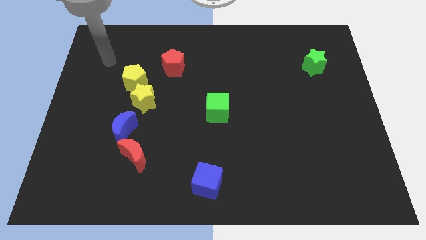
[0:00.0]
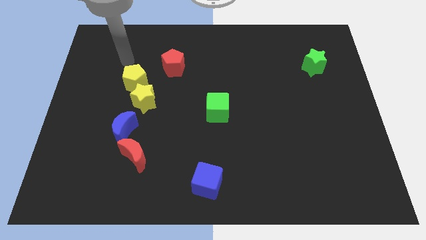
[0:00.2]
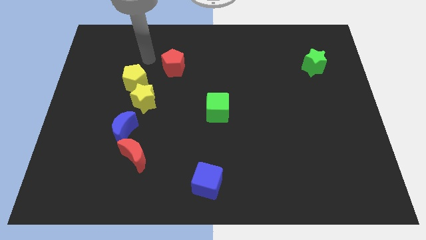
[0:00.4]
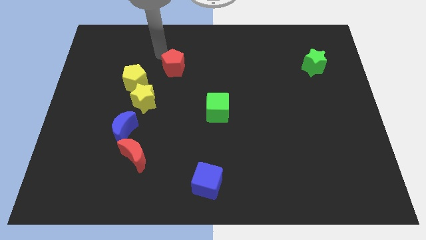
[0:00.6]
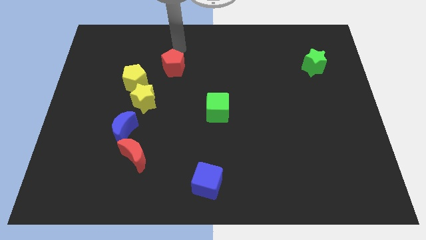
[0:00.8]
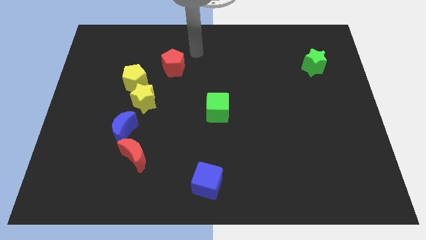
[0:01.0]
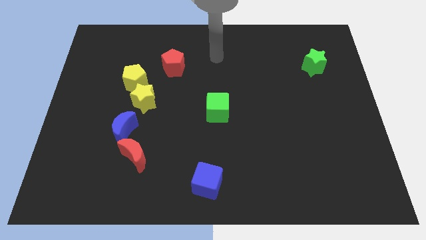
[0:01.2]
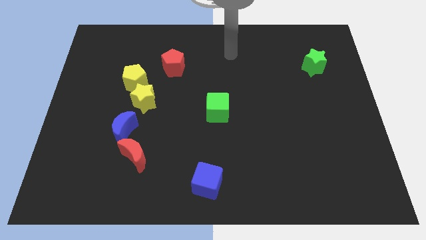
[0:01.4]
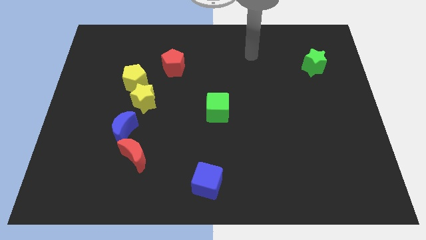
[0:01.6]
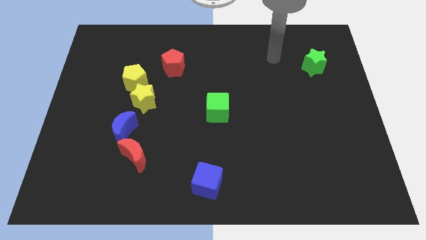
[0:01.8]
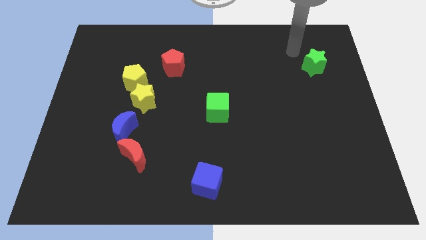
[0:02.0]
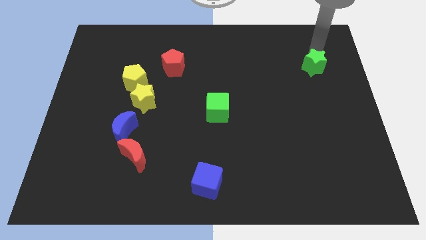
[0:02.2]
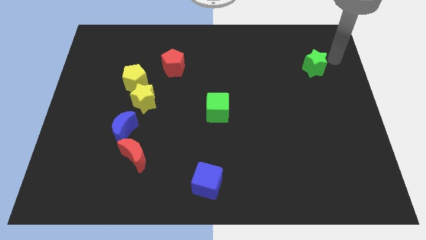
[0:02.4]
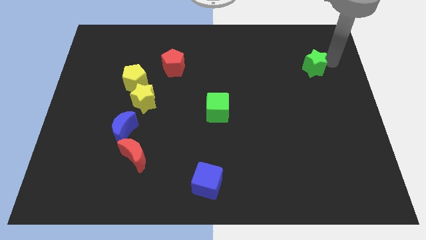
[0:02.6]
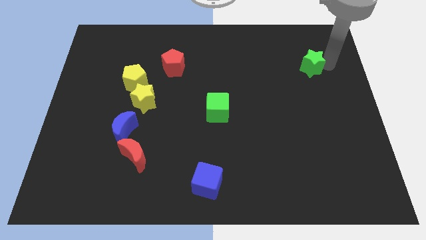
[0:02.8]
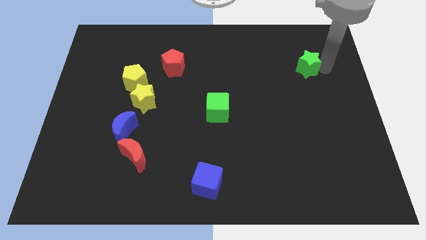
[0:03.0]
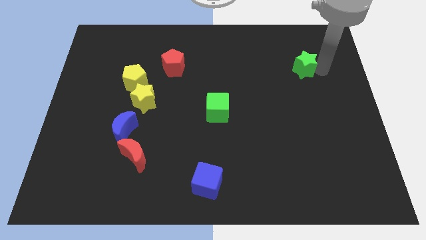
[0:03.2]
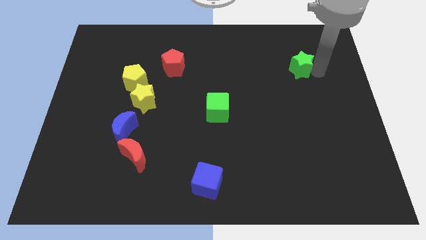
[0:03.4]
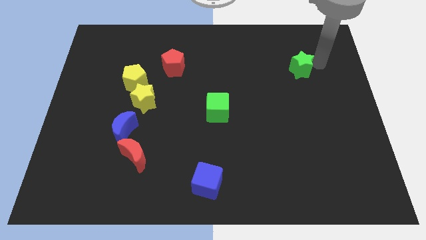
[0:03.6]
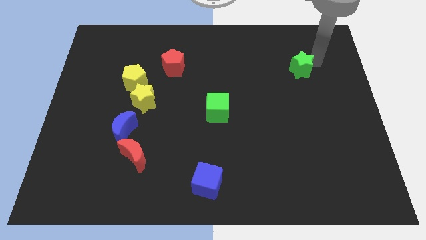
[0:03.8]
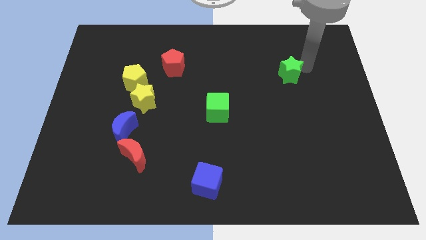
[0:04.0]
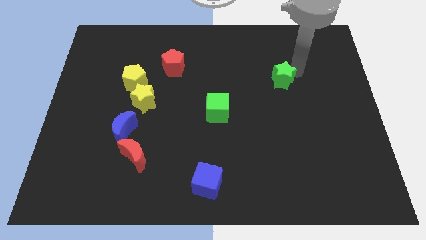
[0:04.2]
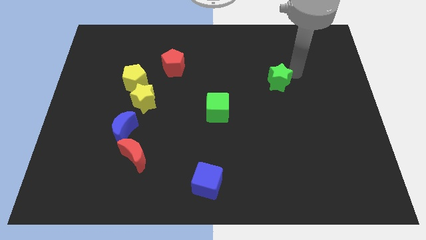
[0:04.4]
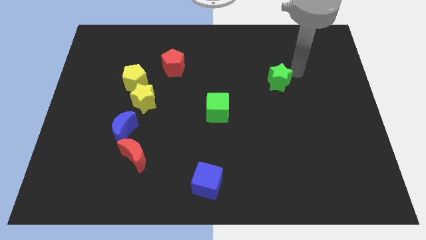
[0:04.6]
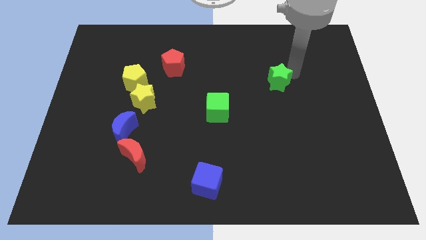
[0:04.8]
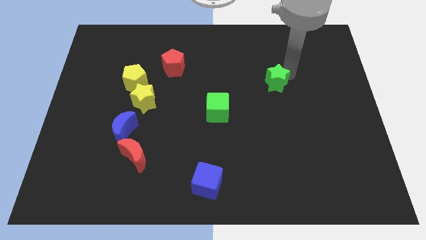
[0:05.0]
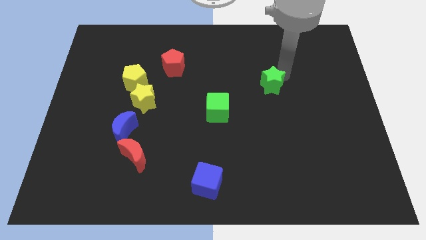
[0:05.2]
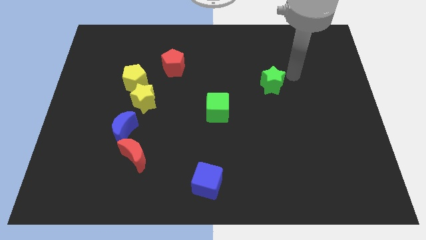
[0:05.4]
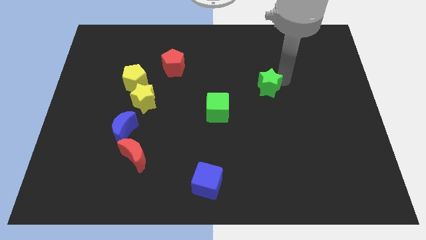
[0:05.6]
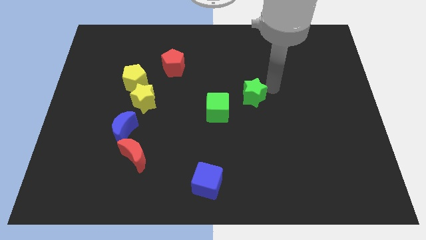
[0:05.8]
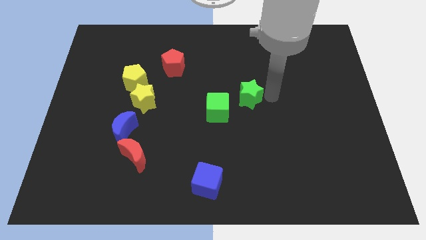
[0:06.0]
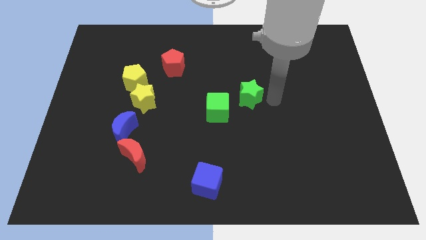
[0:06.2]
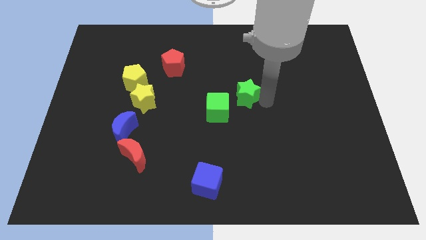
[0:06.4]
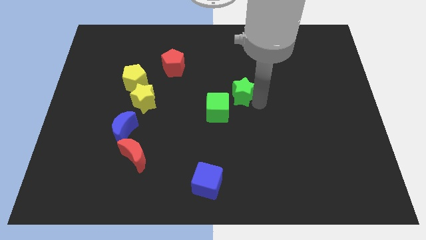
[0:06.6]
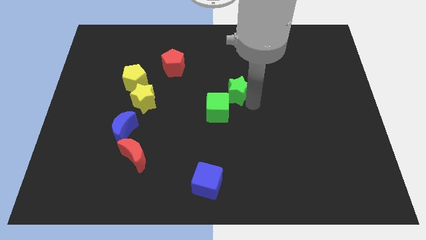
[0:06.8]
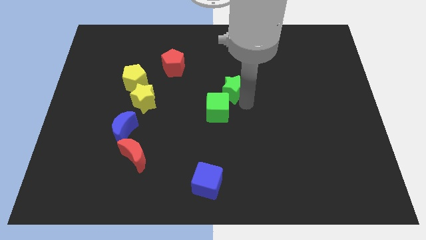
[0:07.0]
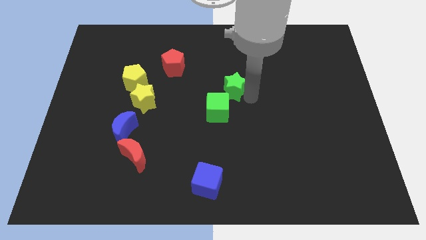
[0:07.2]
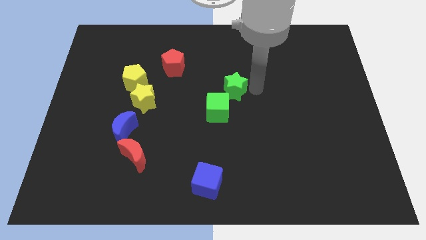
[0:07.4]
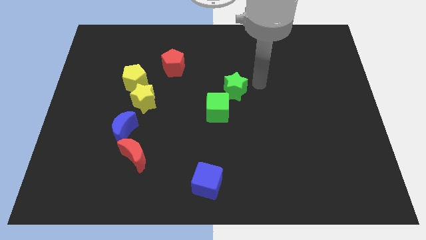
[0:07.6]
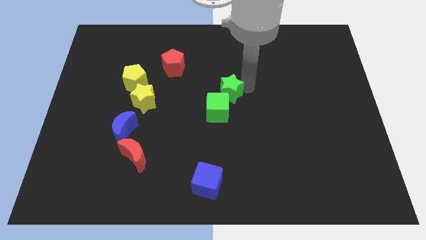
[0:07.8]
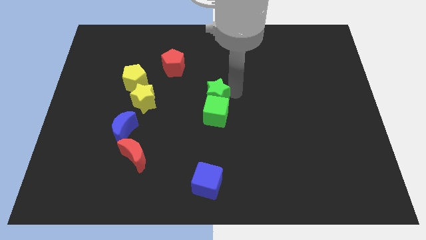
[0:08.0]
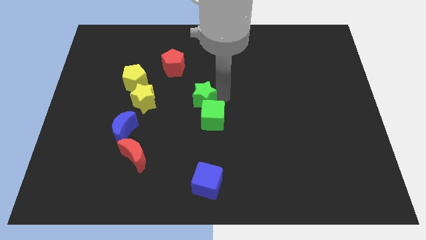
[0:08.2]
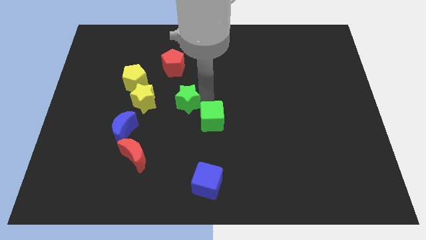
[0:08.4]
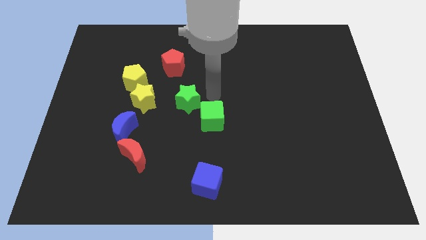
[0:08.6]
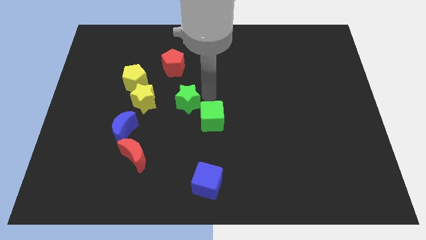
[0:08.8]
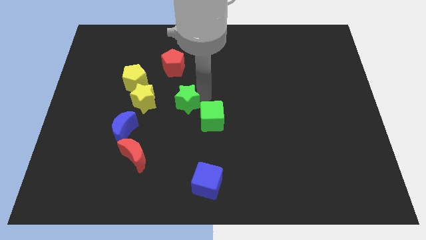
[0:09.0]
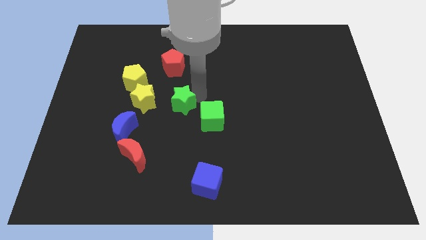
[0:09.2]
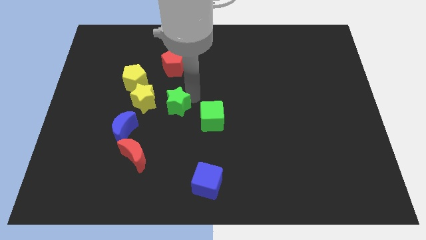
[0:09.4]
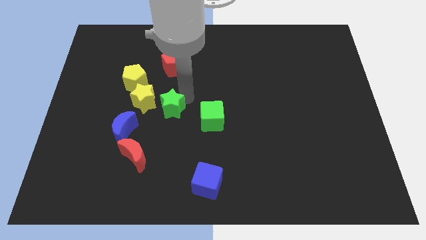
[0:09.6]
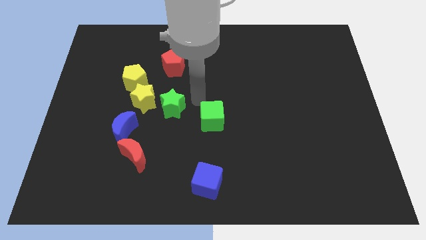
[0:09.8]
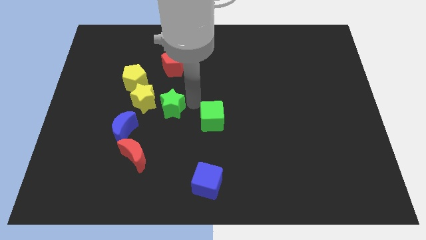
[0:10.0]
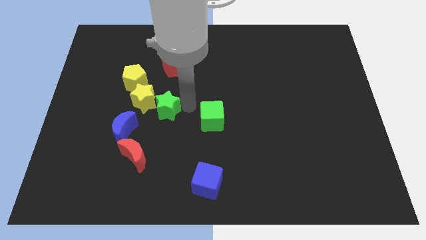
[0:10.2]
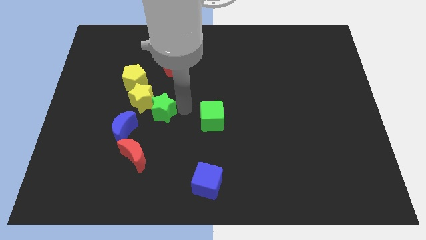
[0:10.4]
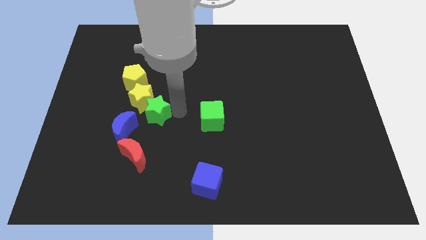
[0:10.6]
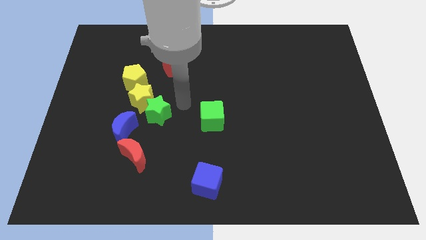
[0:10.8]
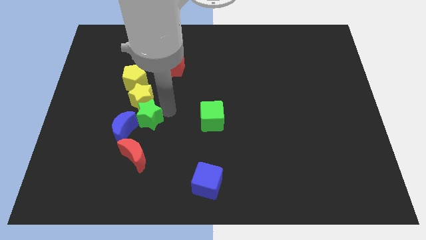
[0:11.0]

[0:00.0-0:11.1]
put the green star close to the blue moon

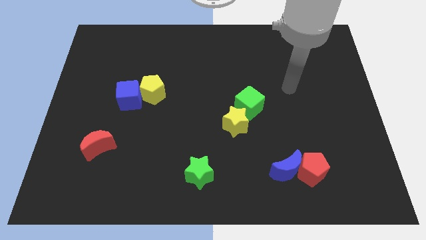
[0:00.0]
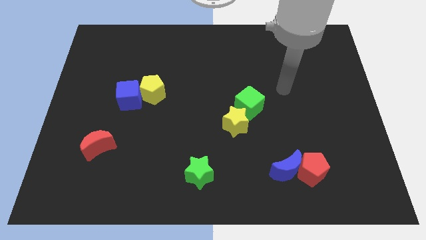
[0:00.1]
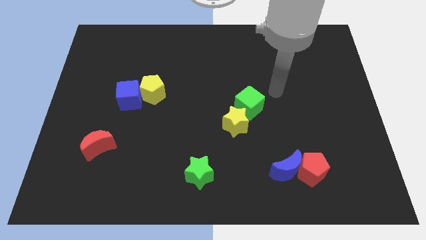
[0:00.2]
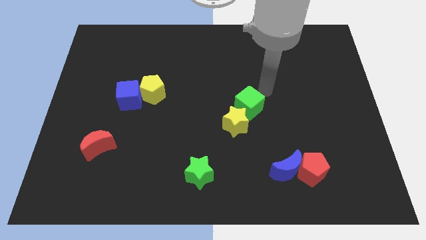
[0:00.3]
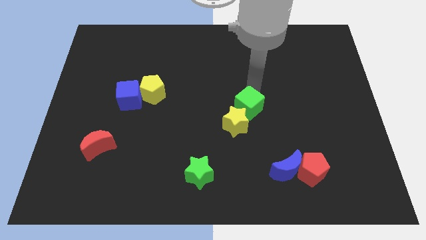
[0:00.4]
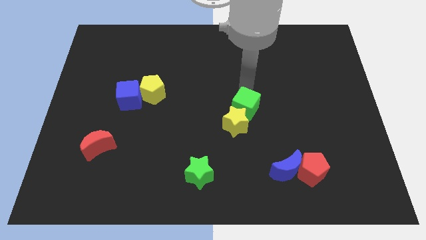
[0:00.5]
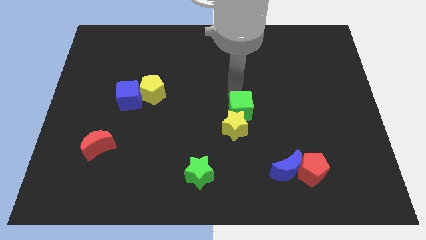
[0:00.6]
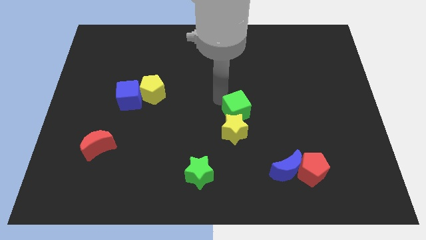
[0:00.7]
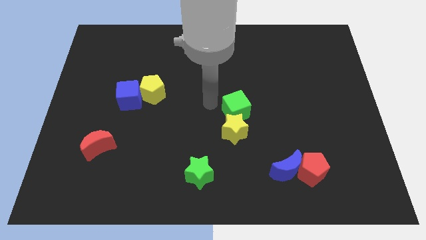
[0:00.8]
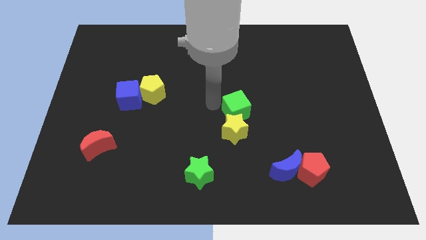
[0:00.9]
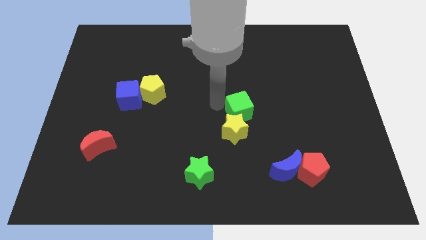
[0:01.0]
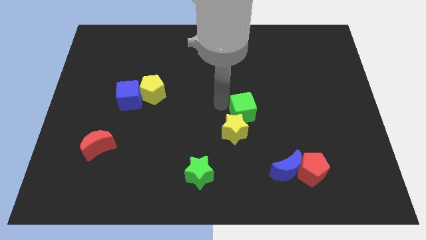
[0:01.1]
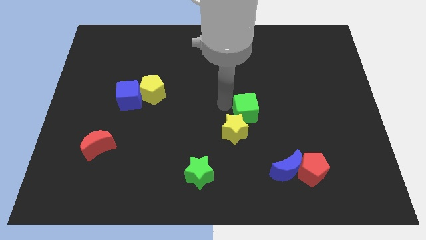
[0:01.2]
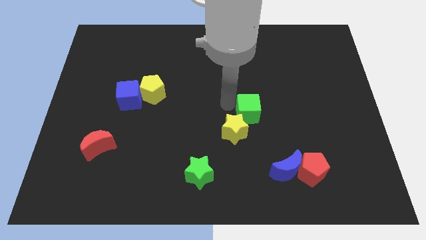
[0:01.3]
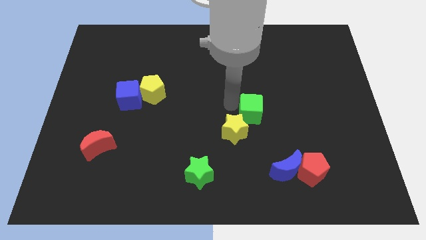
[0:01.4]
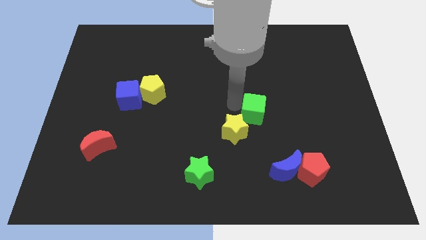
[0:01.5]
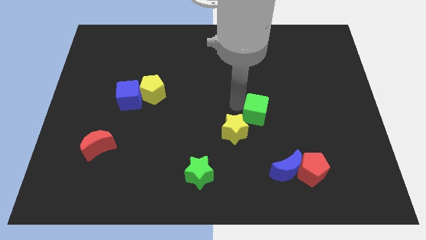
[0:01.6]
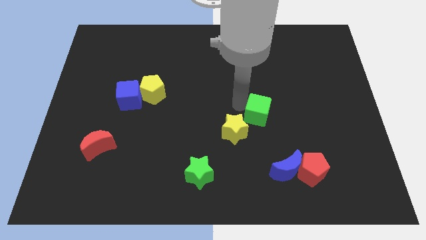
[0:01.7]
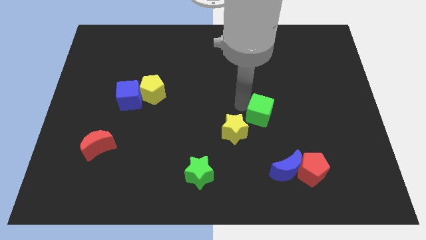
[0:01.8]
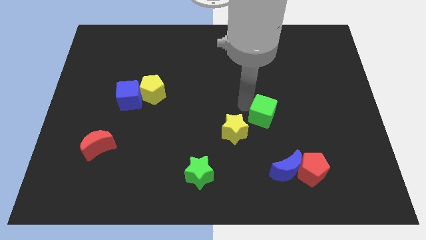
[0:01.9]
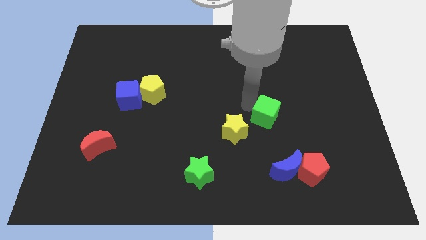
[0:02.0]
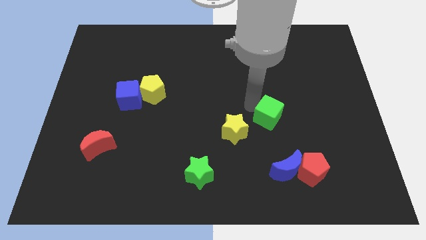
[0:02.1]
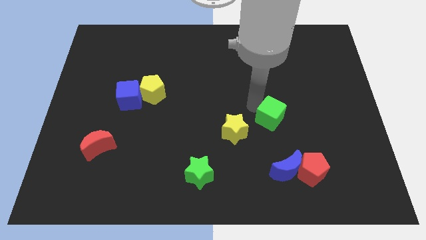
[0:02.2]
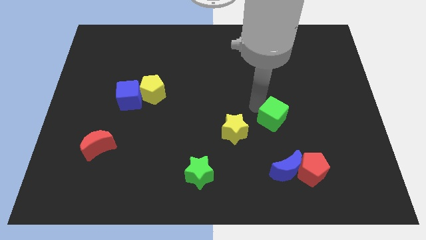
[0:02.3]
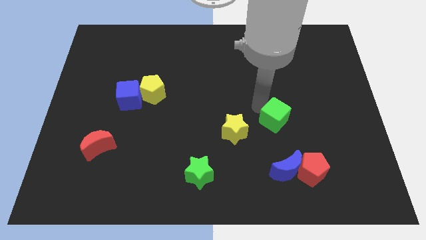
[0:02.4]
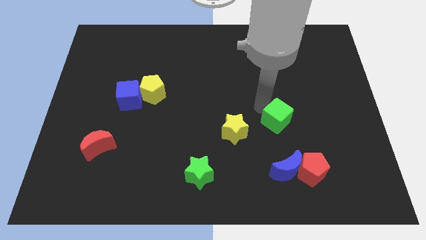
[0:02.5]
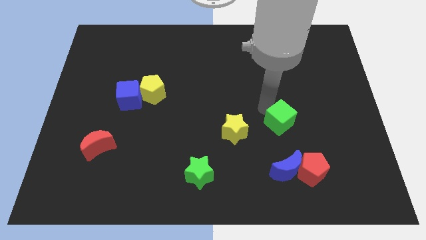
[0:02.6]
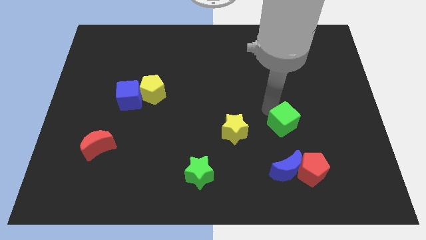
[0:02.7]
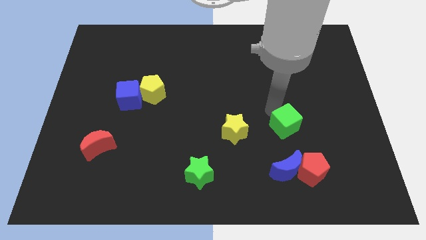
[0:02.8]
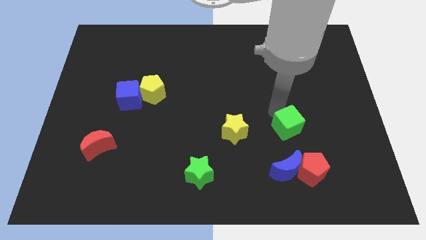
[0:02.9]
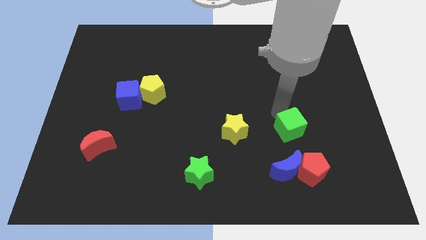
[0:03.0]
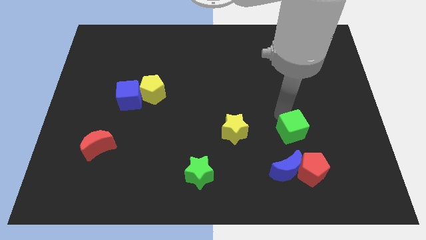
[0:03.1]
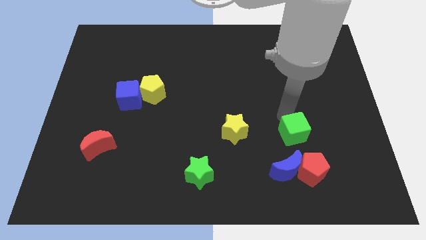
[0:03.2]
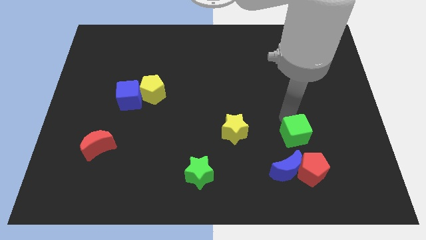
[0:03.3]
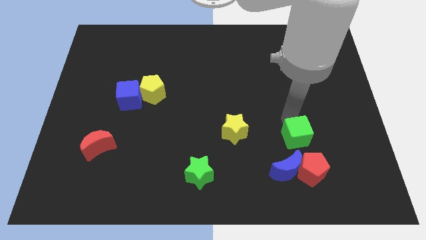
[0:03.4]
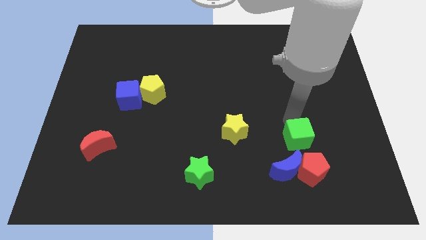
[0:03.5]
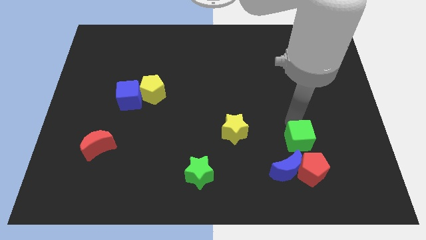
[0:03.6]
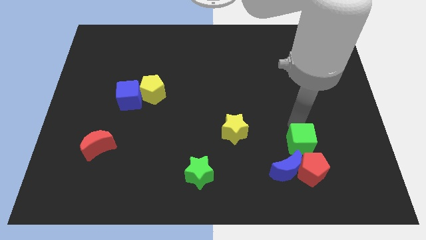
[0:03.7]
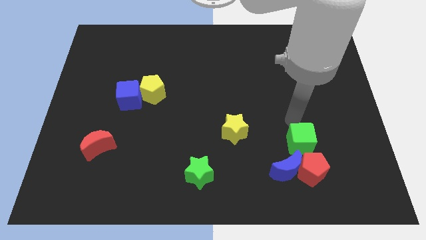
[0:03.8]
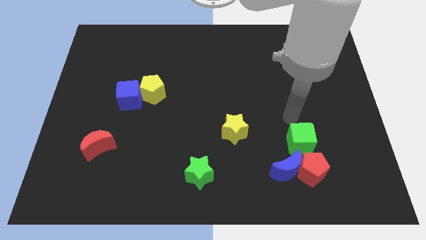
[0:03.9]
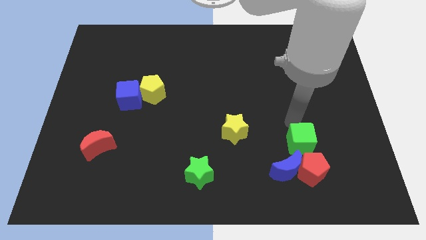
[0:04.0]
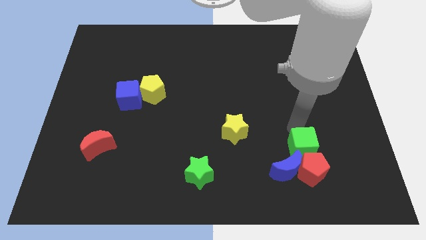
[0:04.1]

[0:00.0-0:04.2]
put the green cube to the red pentagon
